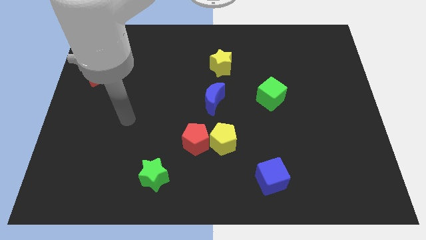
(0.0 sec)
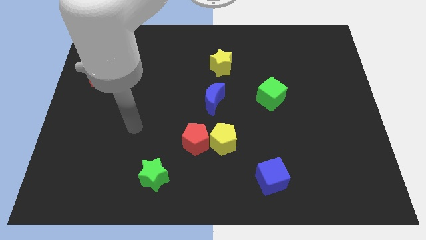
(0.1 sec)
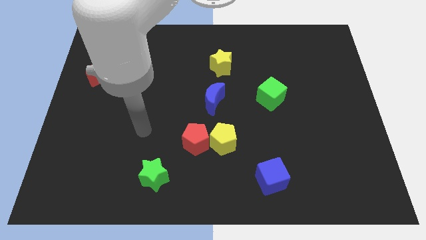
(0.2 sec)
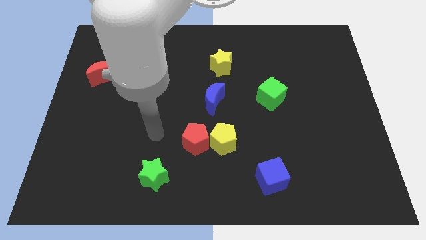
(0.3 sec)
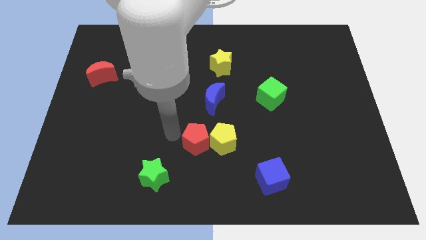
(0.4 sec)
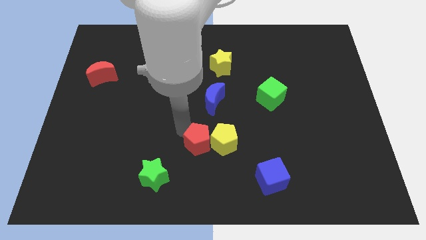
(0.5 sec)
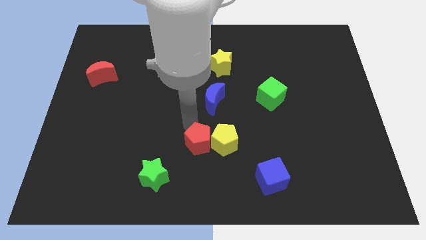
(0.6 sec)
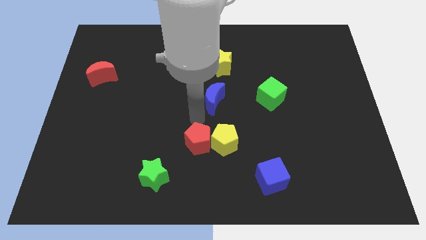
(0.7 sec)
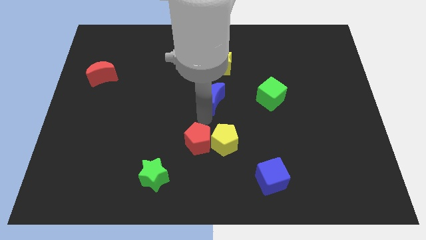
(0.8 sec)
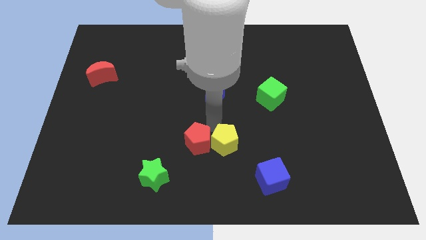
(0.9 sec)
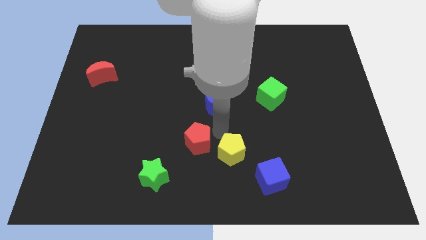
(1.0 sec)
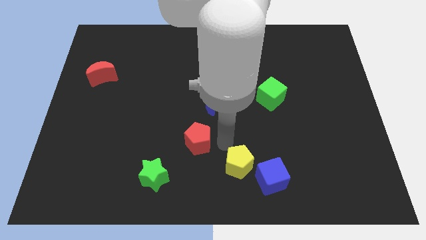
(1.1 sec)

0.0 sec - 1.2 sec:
separate the red pentagon from the yellow pentagon

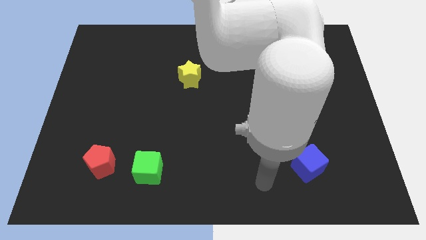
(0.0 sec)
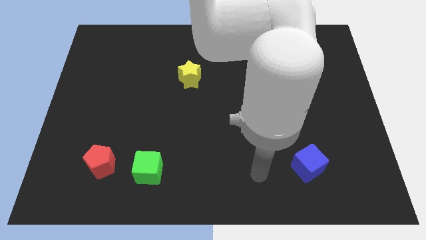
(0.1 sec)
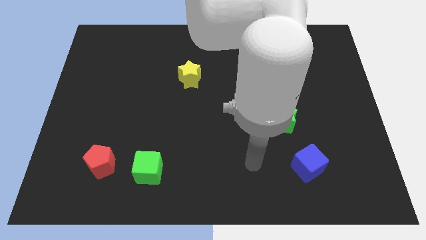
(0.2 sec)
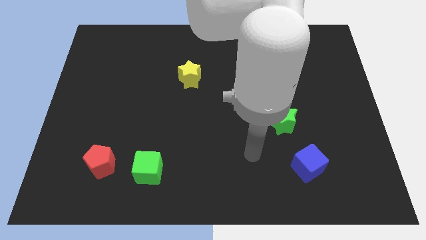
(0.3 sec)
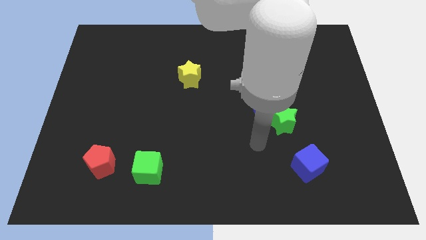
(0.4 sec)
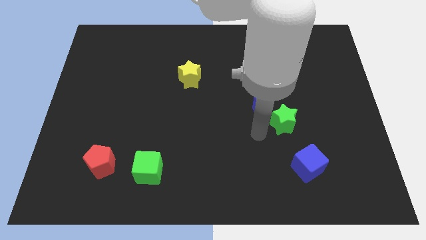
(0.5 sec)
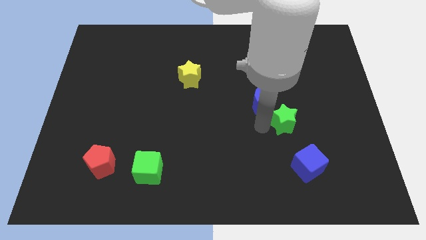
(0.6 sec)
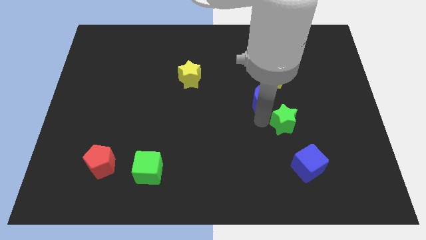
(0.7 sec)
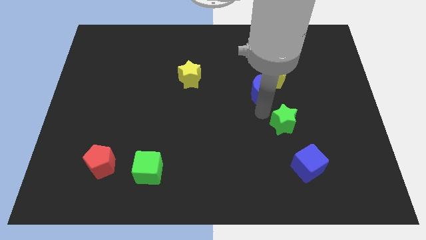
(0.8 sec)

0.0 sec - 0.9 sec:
separate the green star from the blue moon

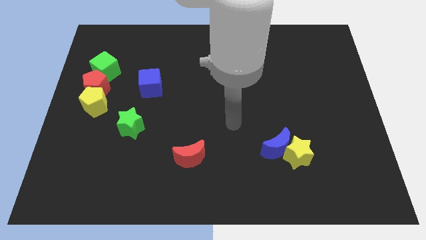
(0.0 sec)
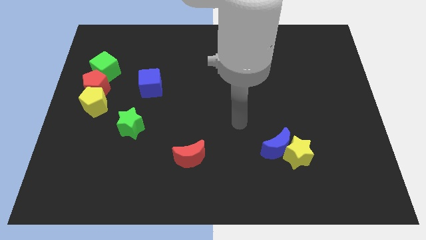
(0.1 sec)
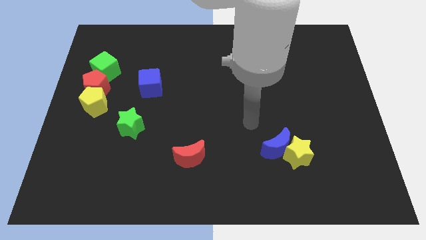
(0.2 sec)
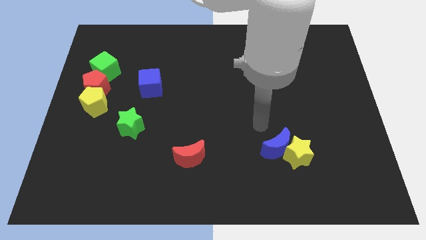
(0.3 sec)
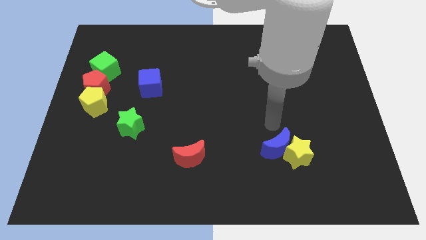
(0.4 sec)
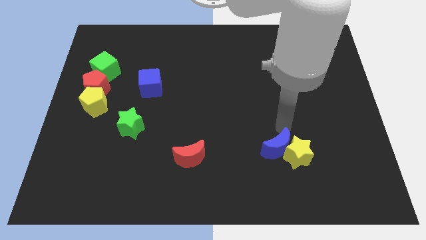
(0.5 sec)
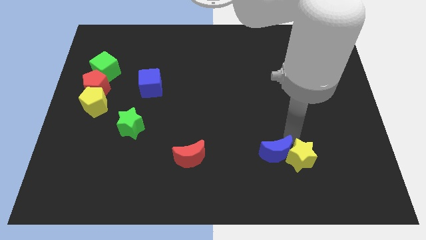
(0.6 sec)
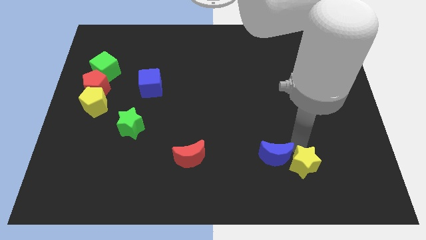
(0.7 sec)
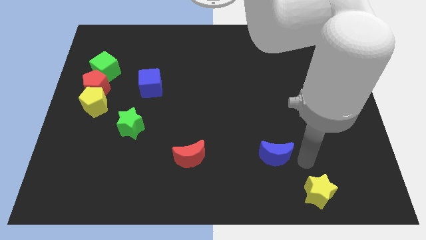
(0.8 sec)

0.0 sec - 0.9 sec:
move the blue moon away from the yellow star

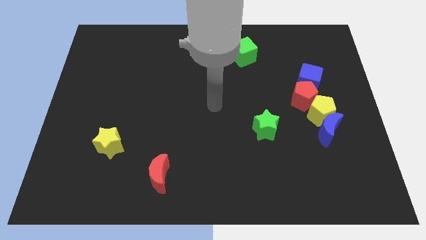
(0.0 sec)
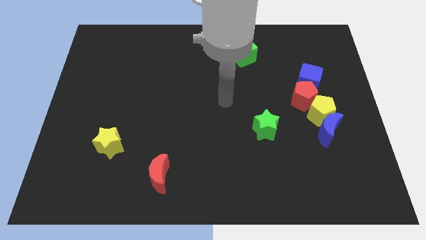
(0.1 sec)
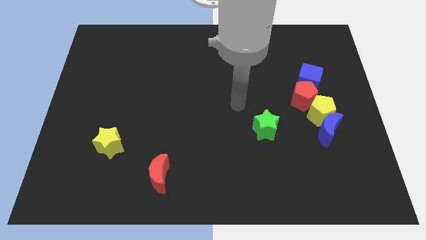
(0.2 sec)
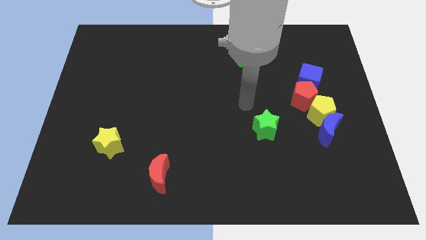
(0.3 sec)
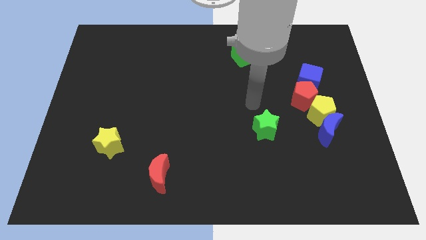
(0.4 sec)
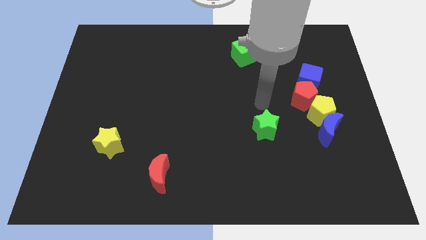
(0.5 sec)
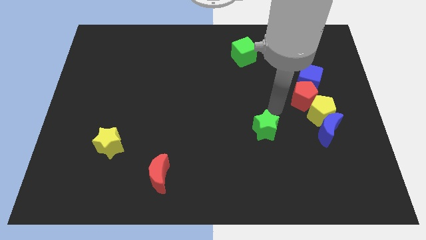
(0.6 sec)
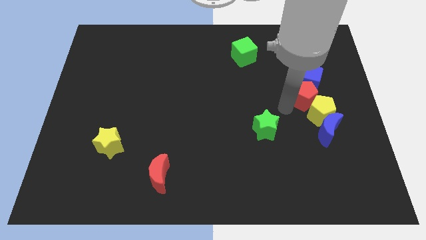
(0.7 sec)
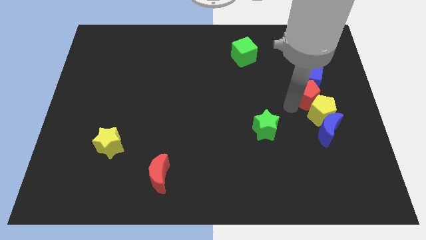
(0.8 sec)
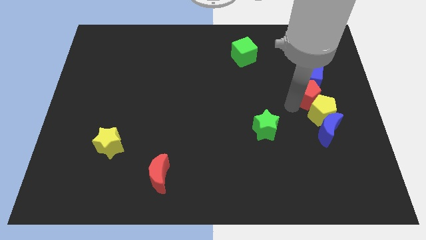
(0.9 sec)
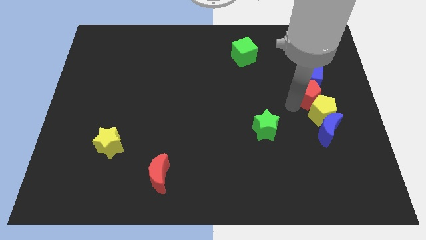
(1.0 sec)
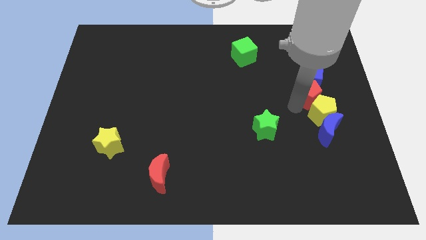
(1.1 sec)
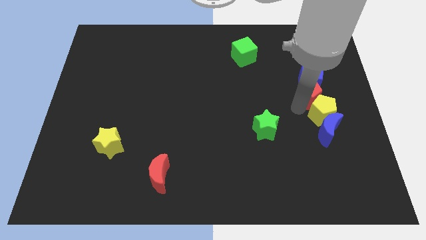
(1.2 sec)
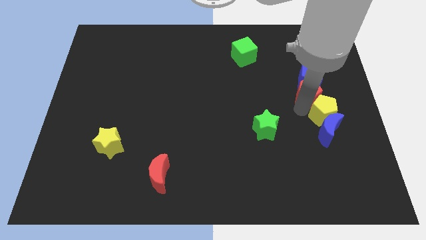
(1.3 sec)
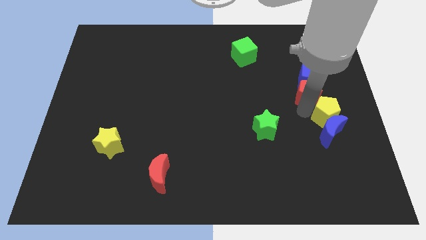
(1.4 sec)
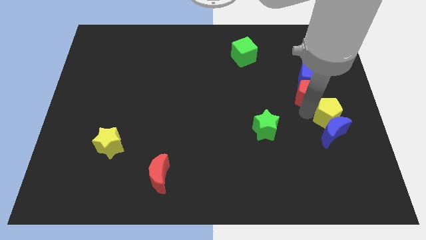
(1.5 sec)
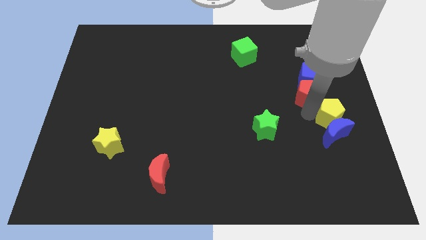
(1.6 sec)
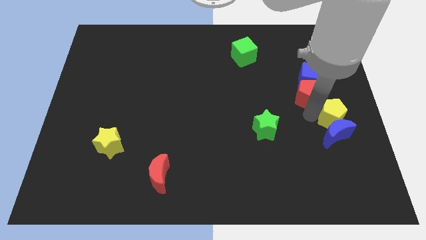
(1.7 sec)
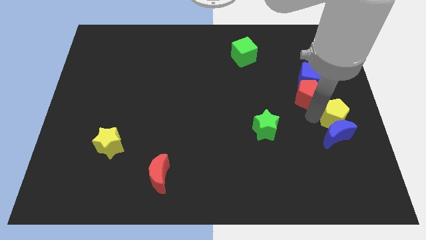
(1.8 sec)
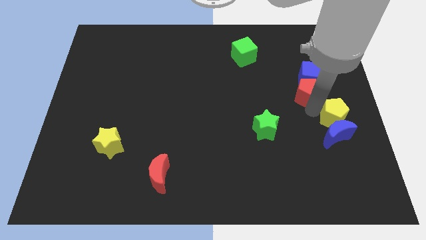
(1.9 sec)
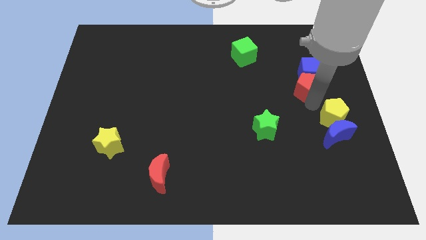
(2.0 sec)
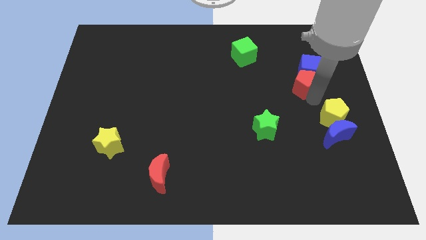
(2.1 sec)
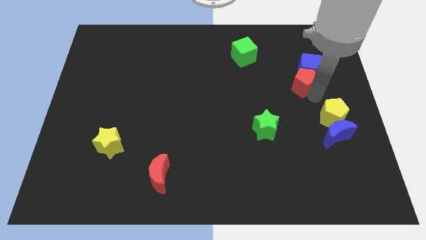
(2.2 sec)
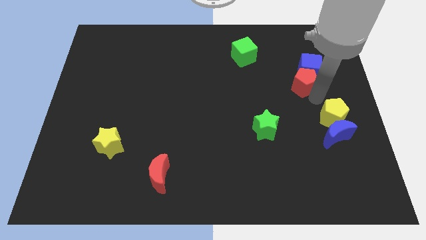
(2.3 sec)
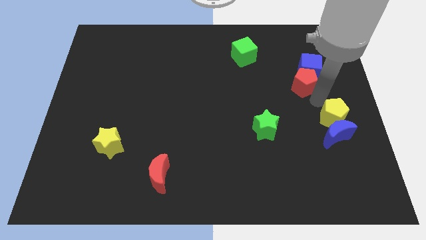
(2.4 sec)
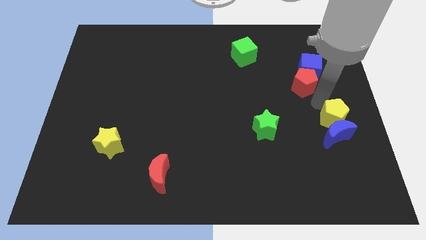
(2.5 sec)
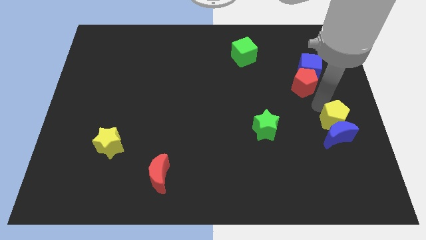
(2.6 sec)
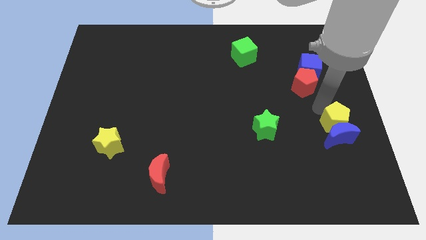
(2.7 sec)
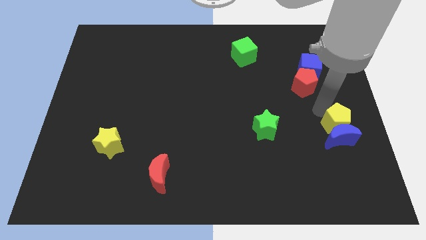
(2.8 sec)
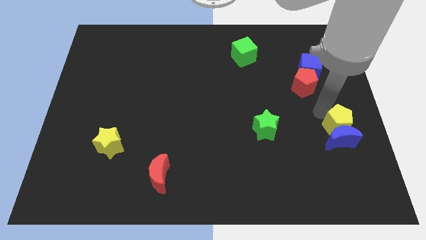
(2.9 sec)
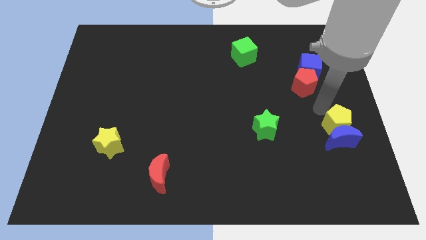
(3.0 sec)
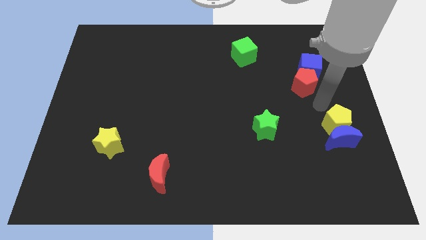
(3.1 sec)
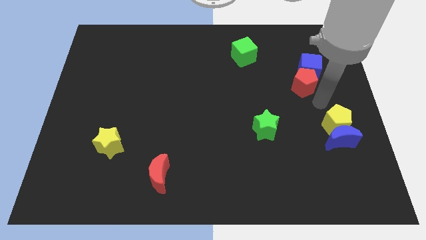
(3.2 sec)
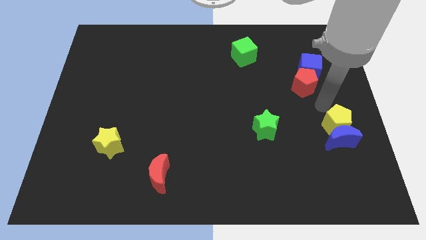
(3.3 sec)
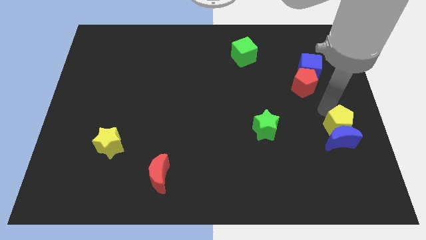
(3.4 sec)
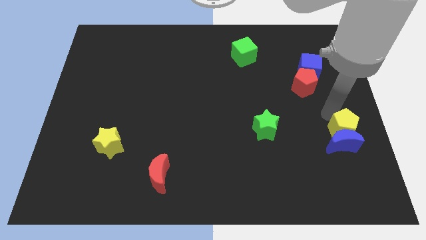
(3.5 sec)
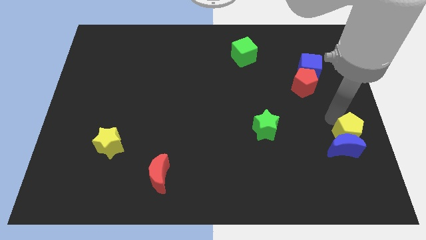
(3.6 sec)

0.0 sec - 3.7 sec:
move the yellow pentagon away from the blue moon, red pentagon, and blue cube

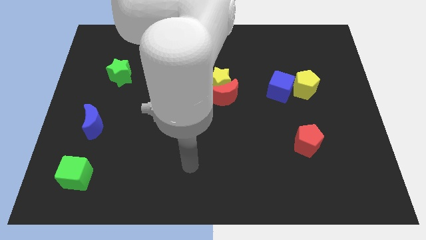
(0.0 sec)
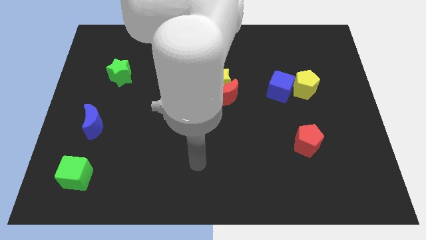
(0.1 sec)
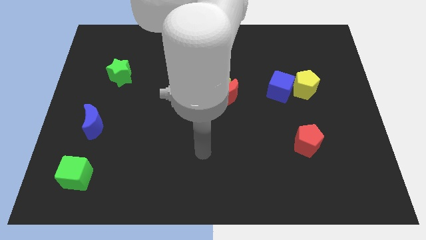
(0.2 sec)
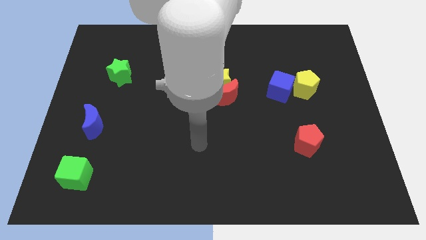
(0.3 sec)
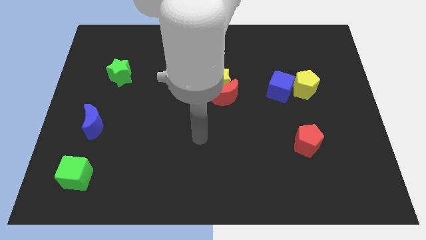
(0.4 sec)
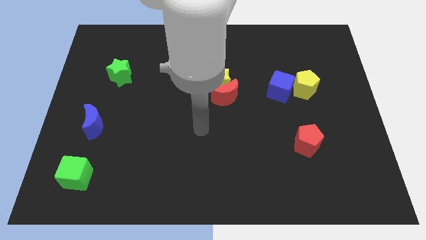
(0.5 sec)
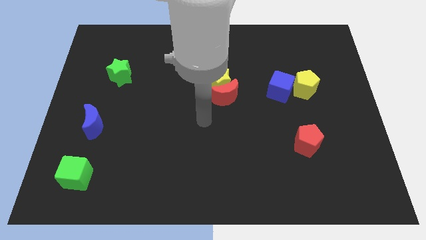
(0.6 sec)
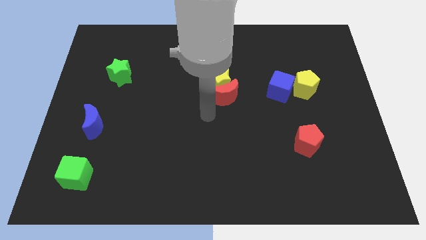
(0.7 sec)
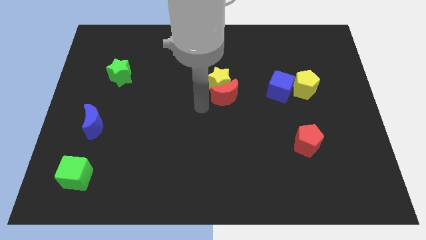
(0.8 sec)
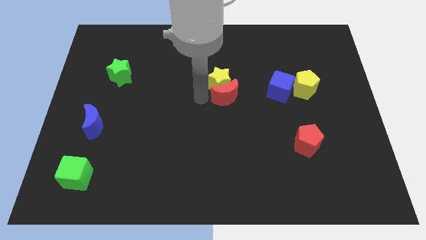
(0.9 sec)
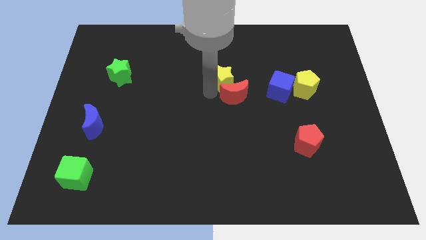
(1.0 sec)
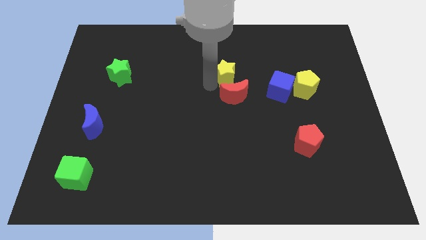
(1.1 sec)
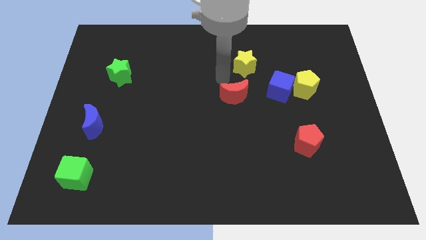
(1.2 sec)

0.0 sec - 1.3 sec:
move the red moon away from the yellow star

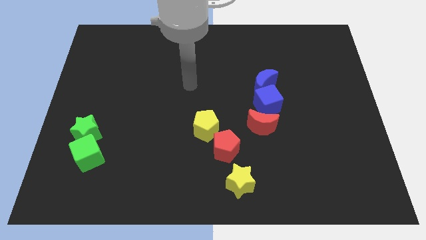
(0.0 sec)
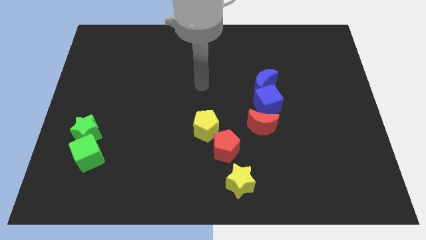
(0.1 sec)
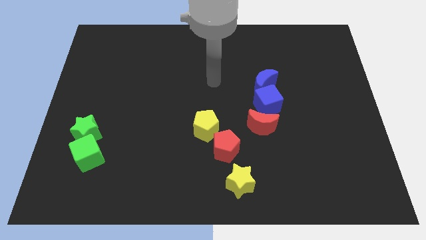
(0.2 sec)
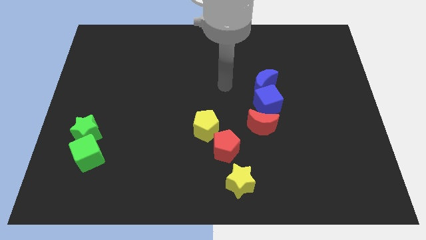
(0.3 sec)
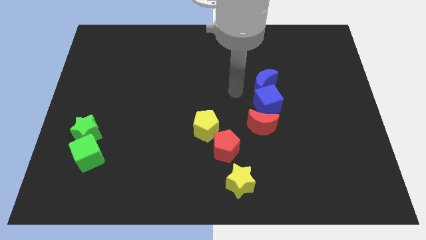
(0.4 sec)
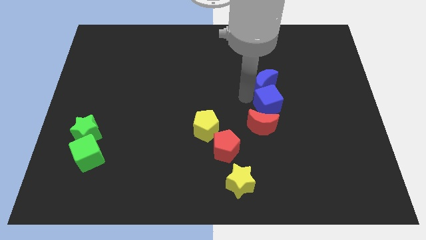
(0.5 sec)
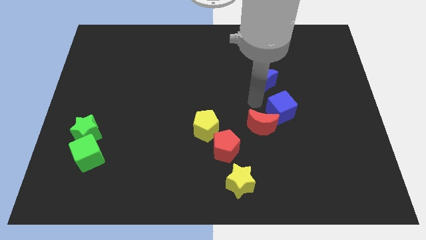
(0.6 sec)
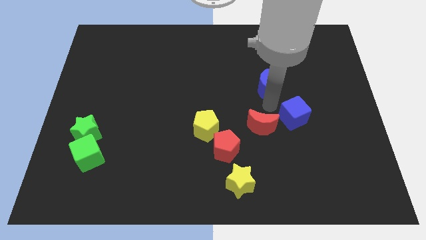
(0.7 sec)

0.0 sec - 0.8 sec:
separate the blue moon from the blue cube

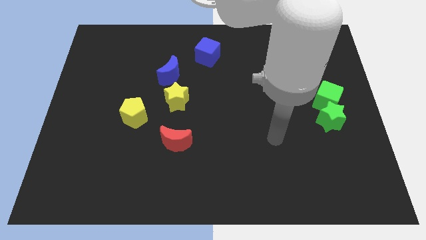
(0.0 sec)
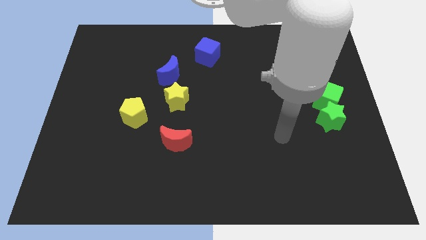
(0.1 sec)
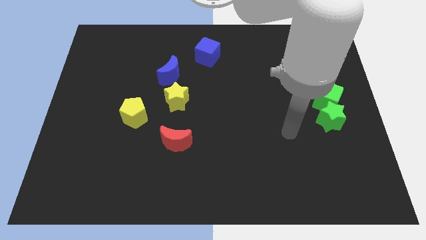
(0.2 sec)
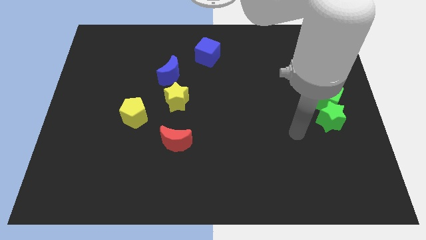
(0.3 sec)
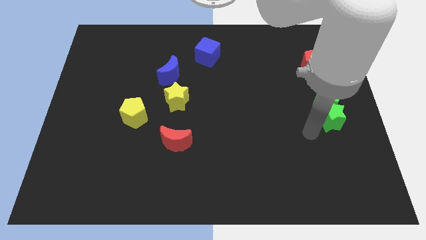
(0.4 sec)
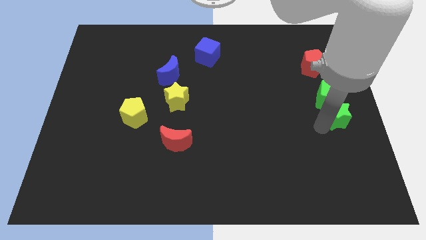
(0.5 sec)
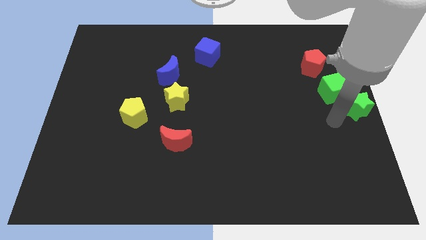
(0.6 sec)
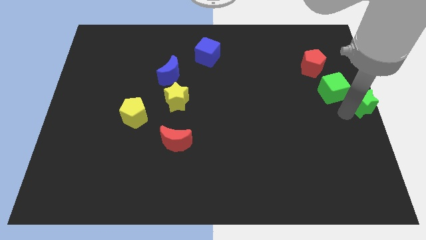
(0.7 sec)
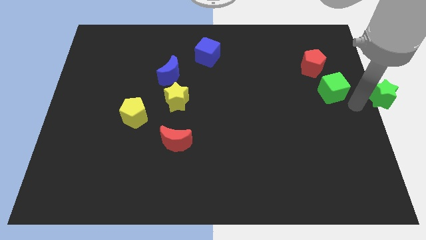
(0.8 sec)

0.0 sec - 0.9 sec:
separate the green cube from the green star
